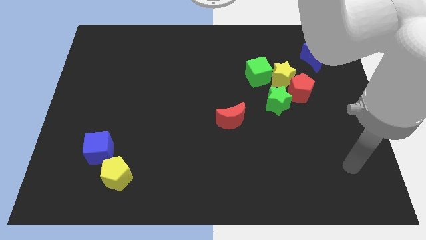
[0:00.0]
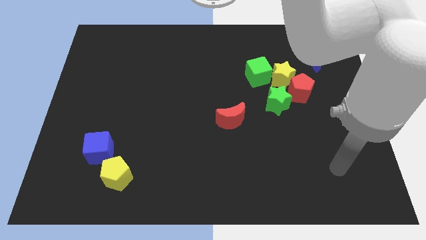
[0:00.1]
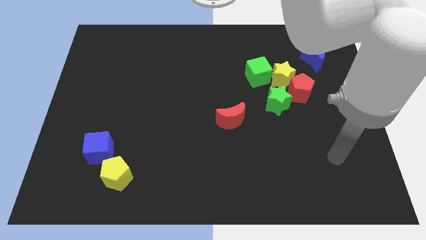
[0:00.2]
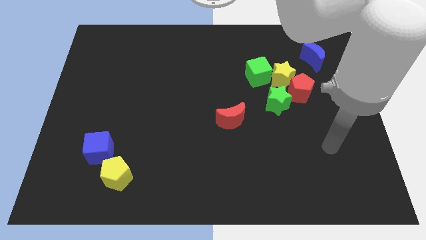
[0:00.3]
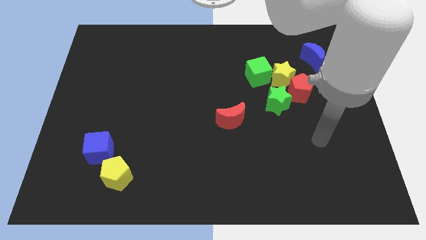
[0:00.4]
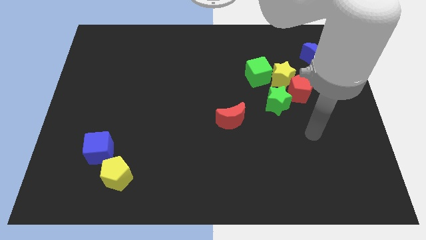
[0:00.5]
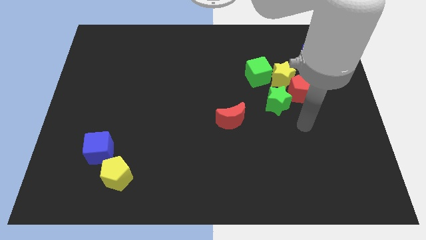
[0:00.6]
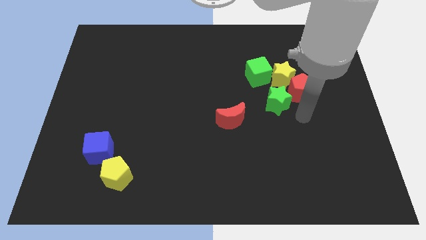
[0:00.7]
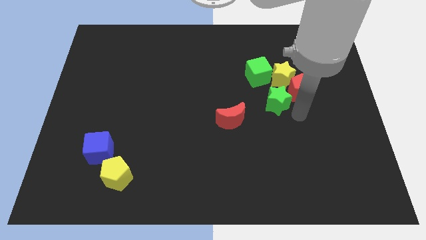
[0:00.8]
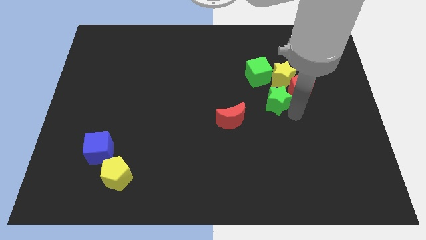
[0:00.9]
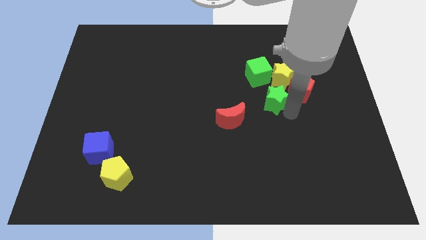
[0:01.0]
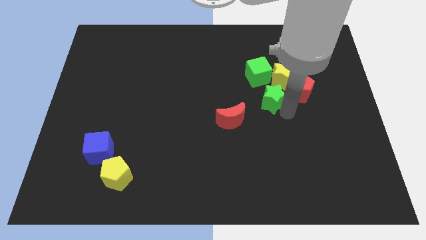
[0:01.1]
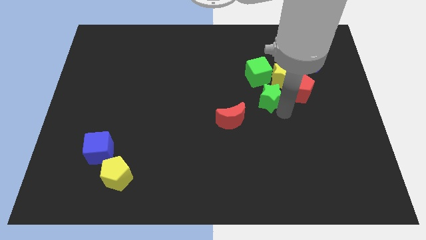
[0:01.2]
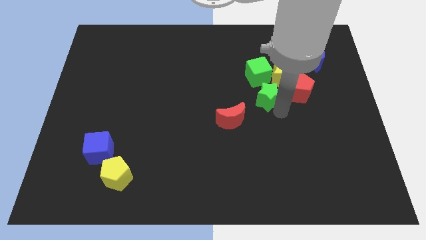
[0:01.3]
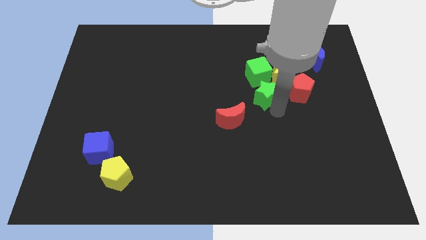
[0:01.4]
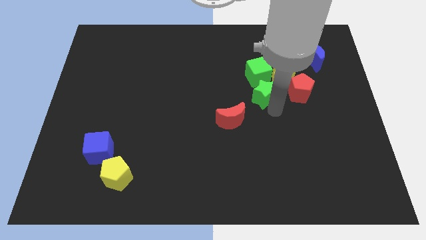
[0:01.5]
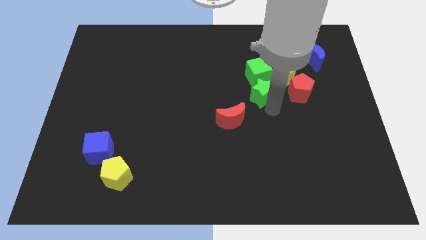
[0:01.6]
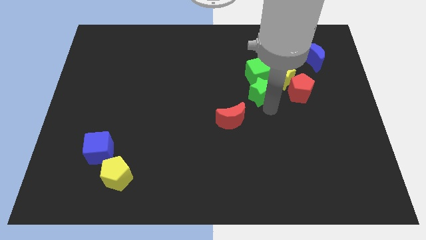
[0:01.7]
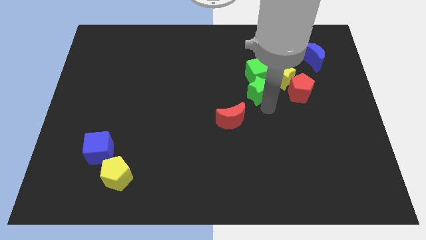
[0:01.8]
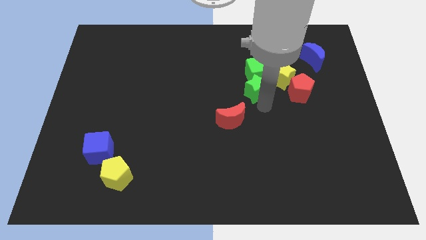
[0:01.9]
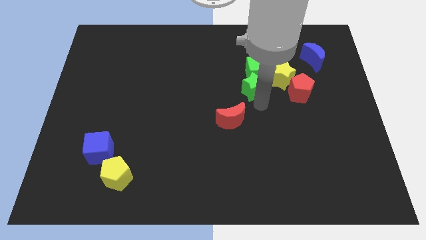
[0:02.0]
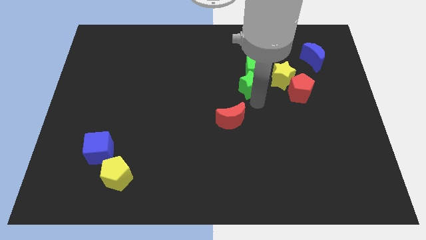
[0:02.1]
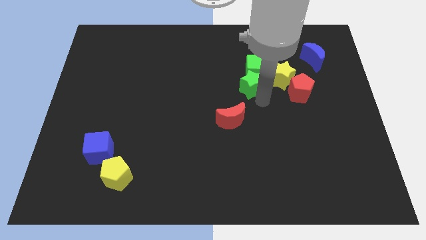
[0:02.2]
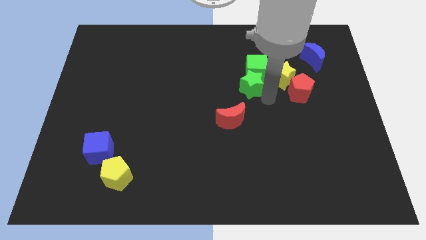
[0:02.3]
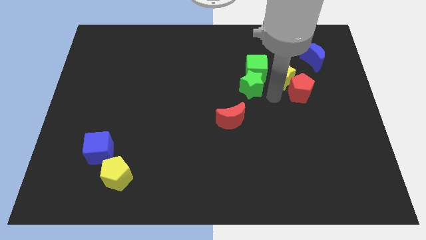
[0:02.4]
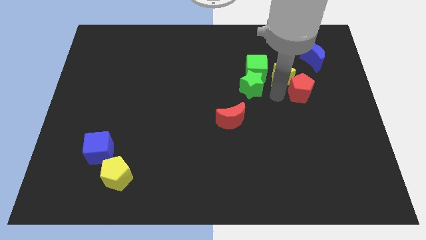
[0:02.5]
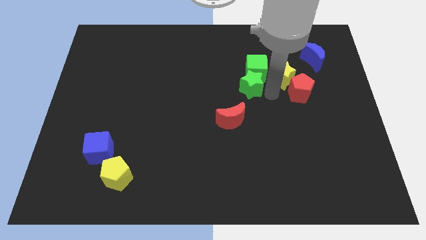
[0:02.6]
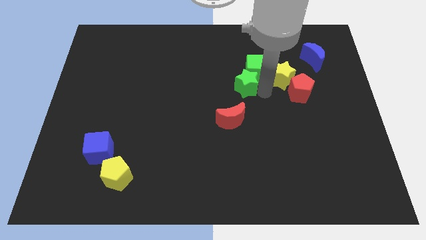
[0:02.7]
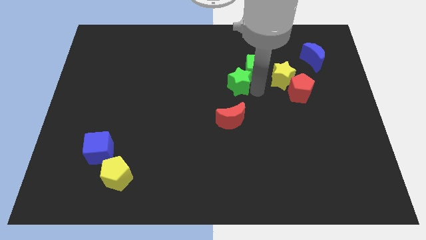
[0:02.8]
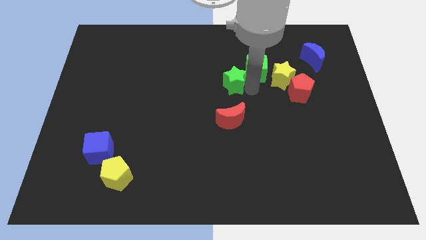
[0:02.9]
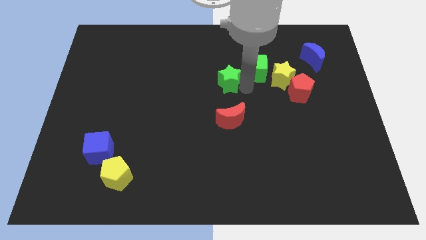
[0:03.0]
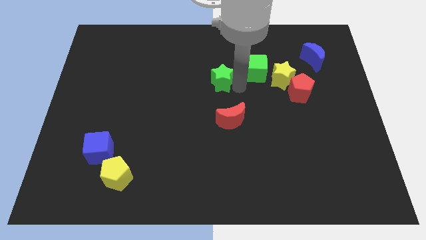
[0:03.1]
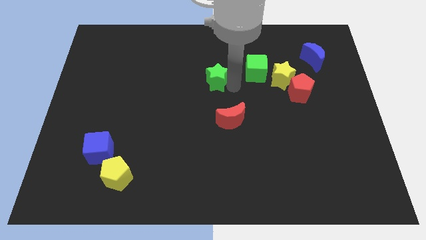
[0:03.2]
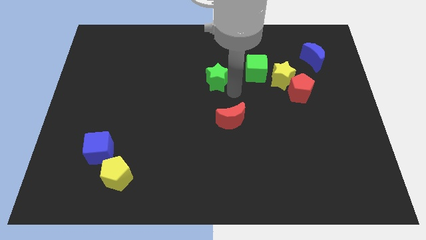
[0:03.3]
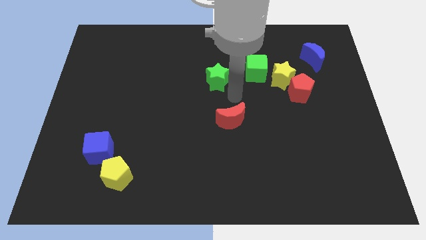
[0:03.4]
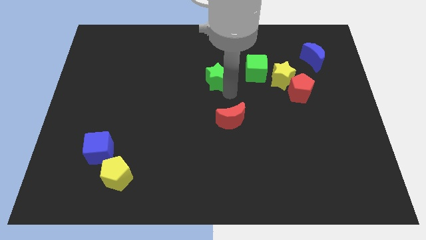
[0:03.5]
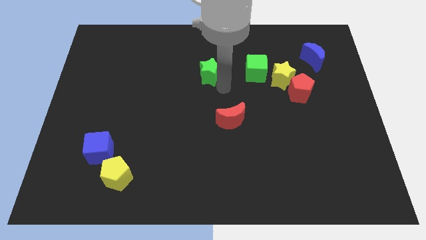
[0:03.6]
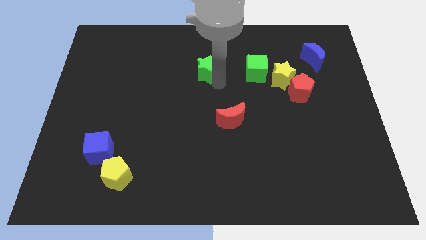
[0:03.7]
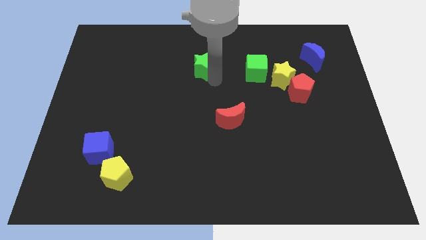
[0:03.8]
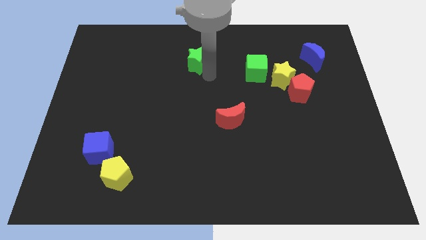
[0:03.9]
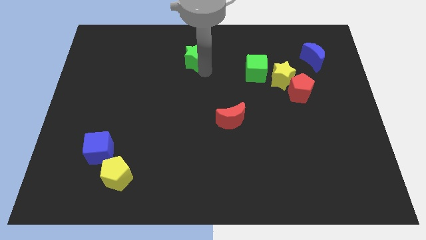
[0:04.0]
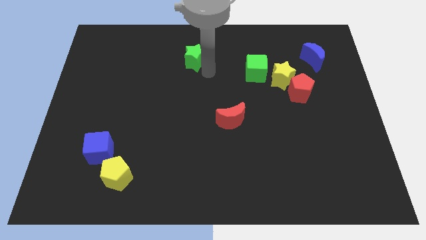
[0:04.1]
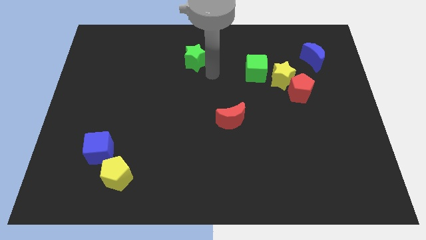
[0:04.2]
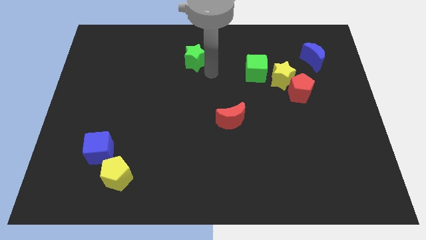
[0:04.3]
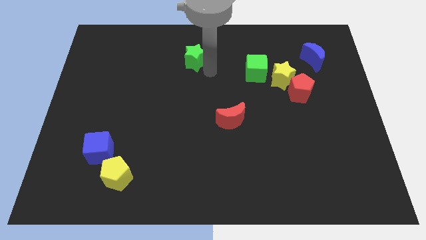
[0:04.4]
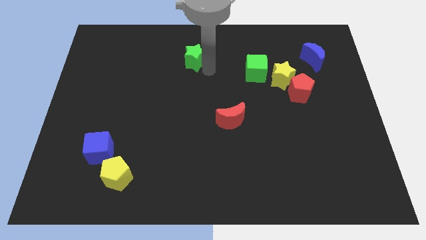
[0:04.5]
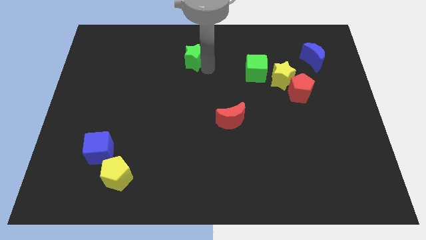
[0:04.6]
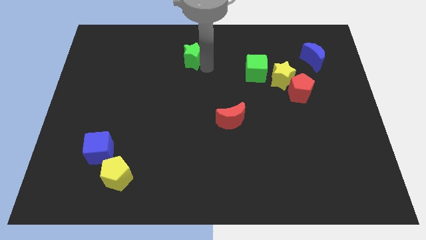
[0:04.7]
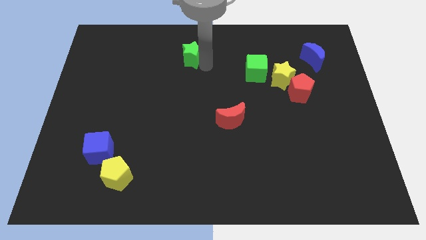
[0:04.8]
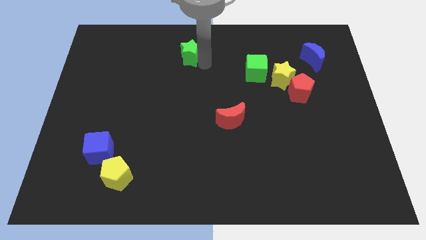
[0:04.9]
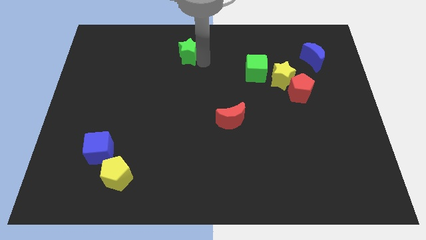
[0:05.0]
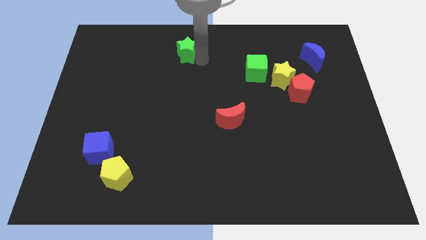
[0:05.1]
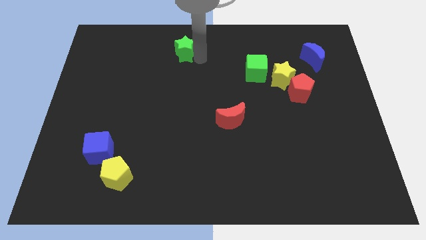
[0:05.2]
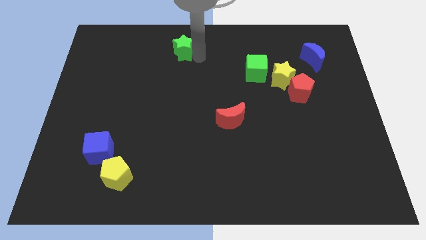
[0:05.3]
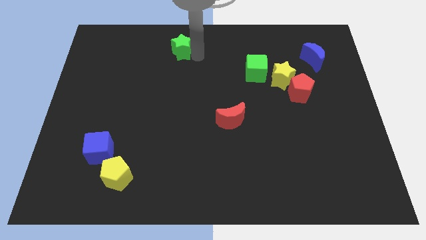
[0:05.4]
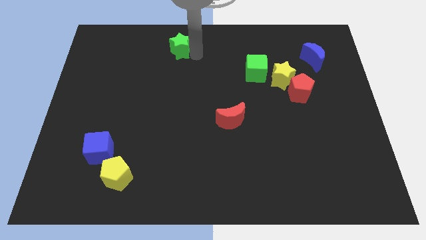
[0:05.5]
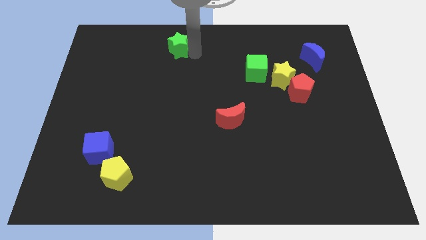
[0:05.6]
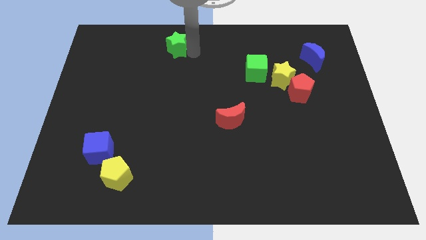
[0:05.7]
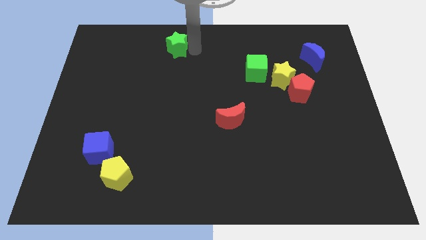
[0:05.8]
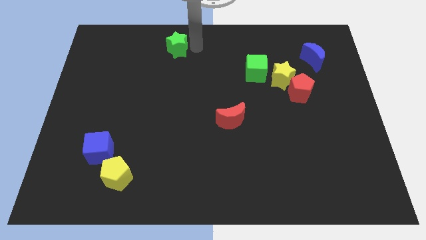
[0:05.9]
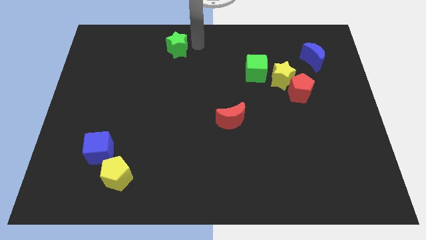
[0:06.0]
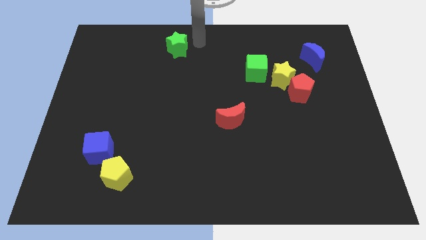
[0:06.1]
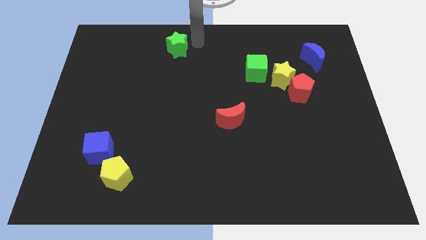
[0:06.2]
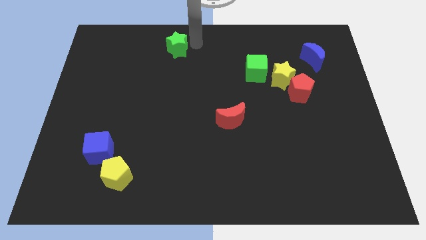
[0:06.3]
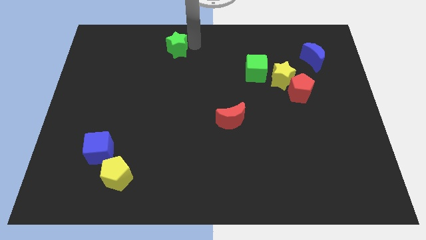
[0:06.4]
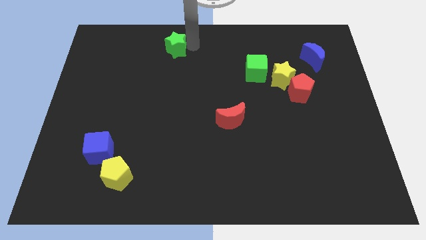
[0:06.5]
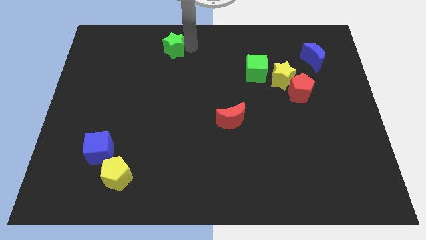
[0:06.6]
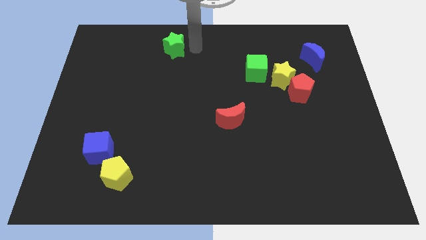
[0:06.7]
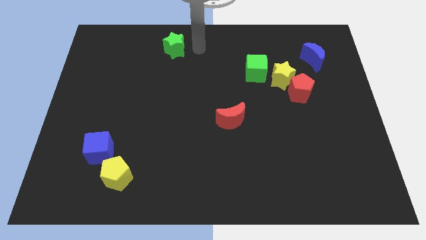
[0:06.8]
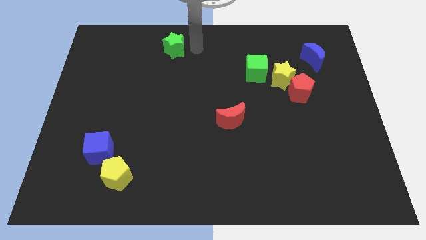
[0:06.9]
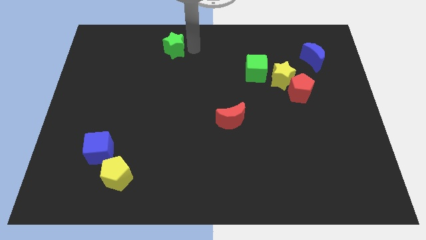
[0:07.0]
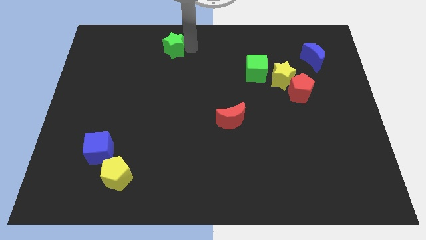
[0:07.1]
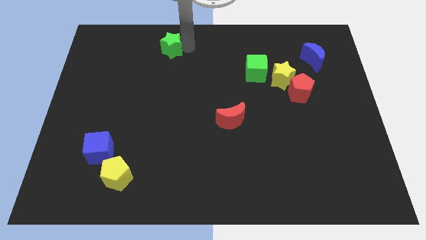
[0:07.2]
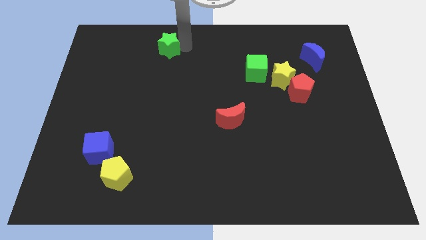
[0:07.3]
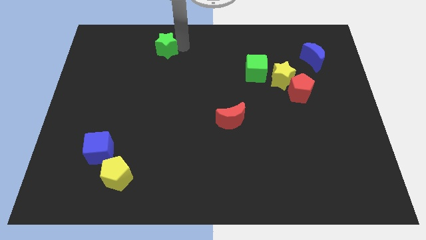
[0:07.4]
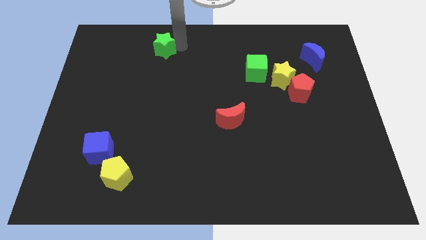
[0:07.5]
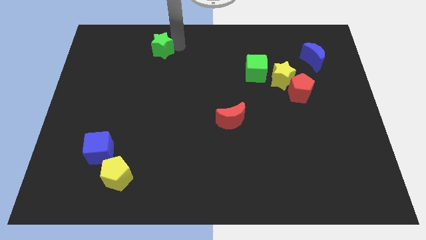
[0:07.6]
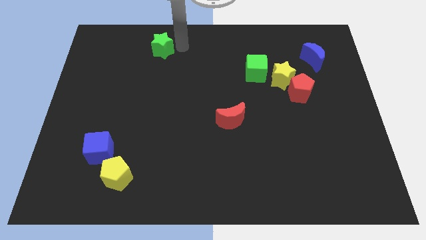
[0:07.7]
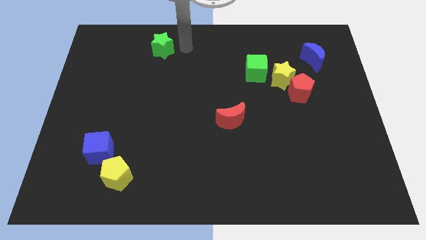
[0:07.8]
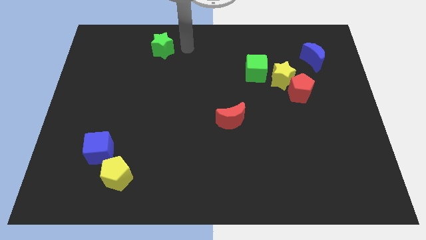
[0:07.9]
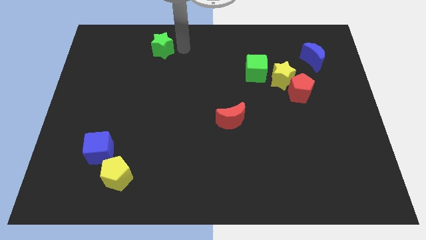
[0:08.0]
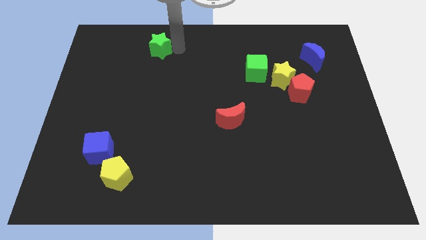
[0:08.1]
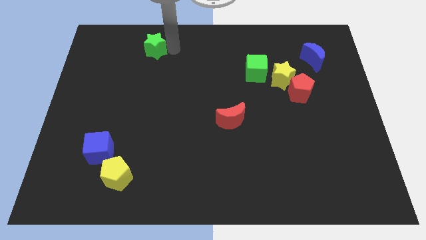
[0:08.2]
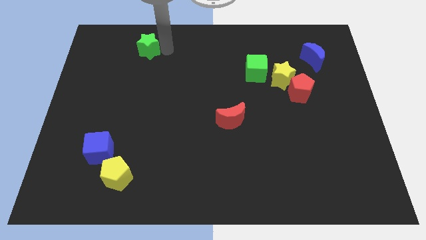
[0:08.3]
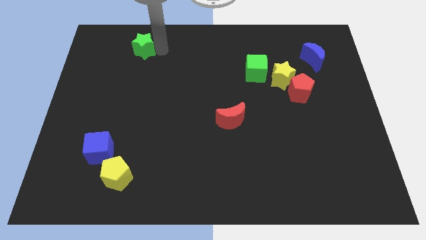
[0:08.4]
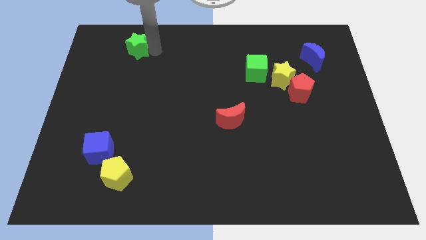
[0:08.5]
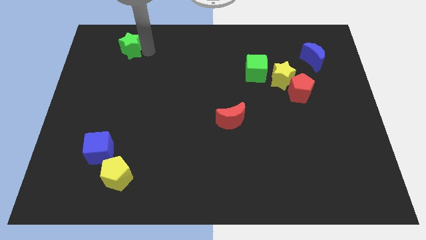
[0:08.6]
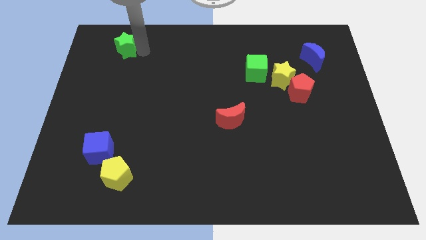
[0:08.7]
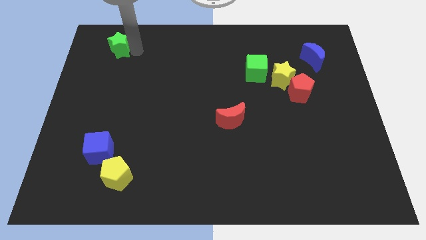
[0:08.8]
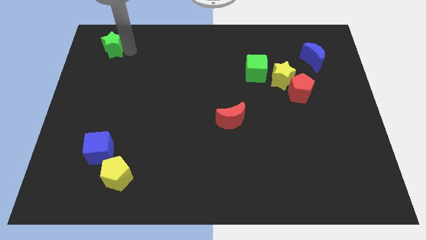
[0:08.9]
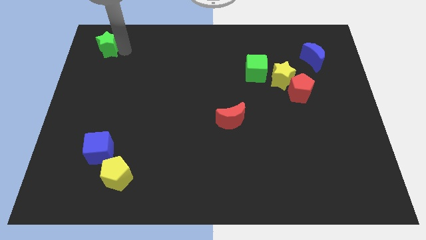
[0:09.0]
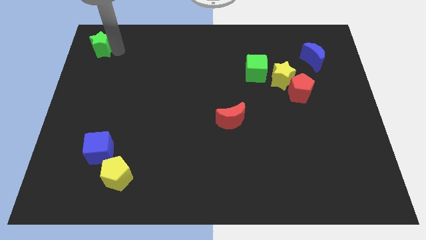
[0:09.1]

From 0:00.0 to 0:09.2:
push the green star to the top left corner
